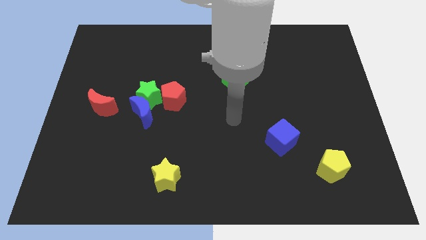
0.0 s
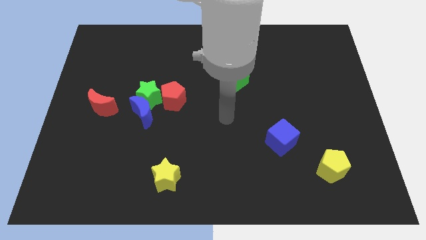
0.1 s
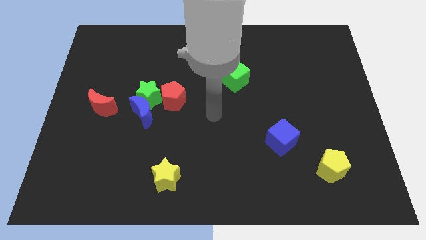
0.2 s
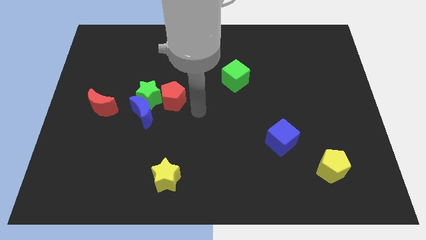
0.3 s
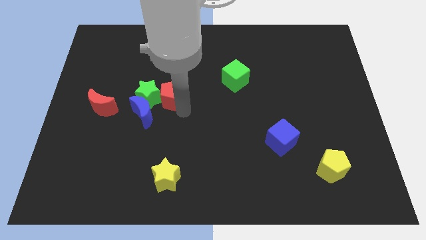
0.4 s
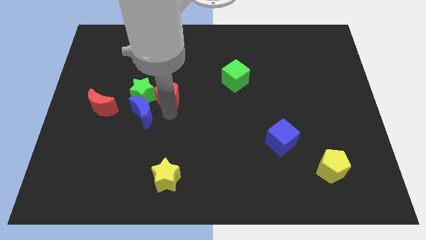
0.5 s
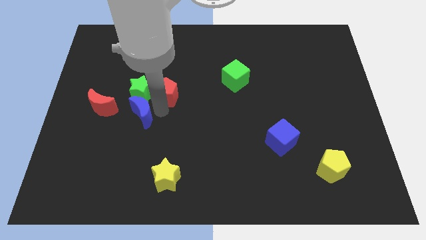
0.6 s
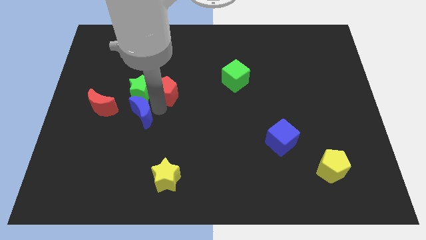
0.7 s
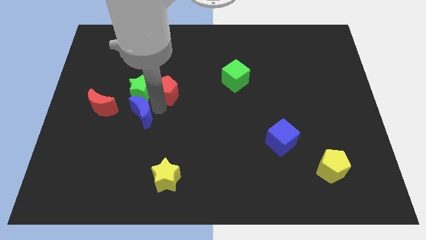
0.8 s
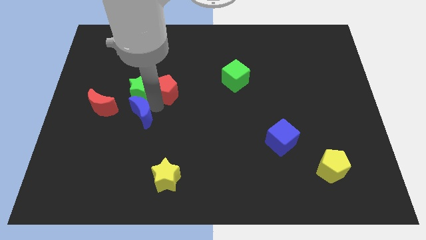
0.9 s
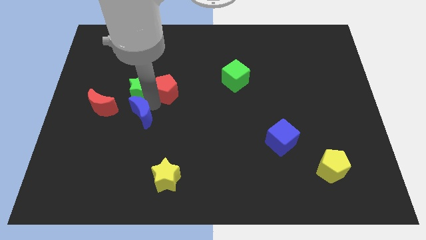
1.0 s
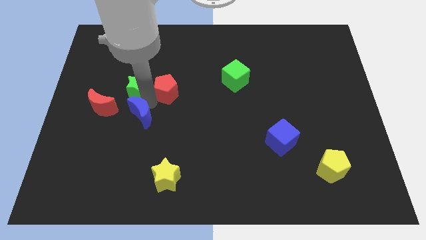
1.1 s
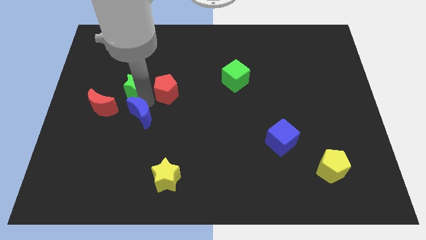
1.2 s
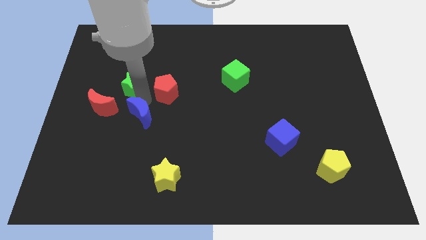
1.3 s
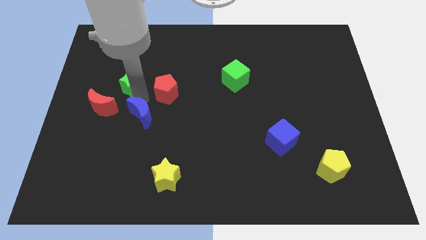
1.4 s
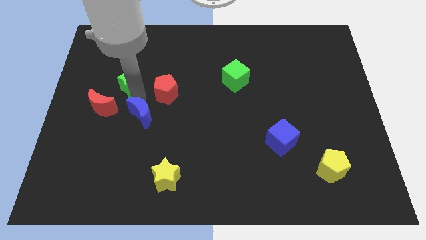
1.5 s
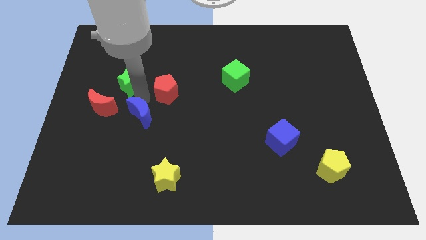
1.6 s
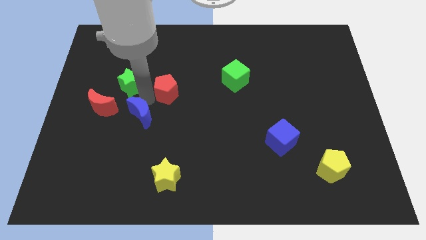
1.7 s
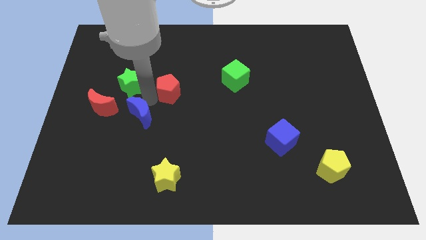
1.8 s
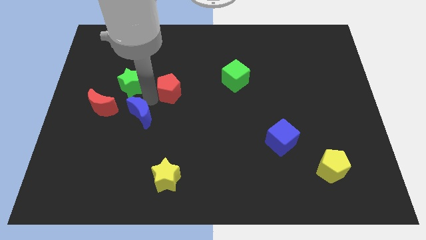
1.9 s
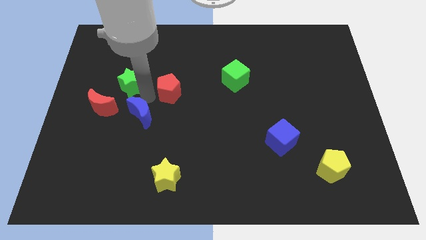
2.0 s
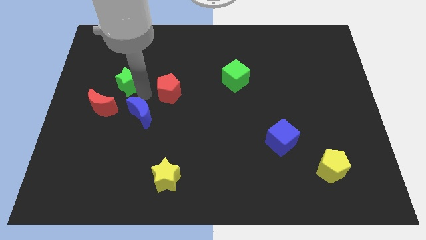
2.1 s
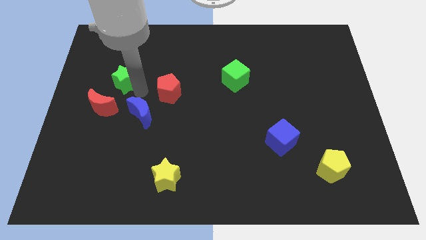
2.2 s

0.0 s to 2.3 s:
separate the green star from the blue moon and red pentagon

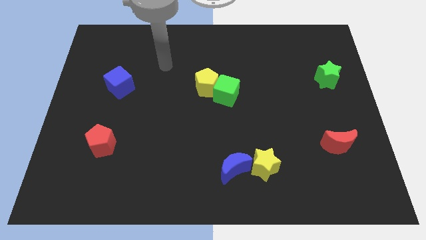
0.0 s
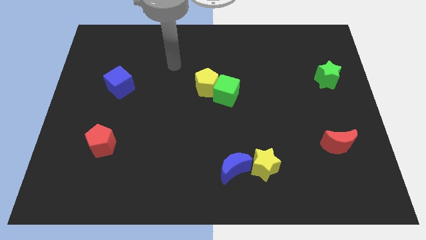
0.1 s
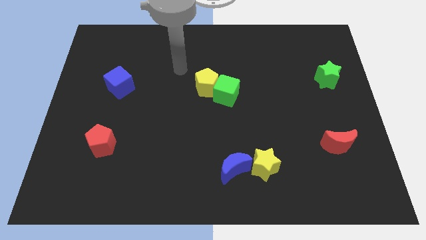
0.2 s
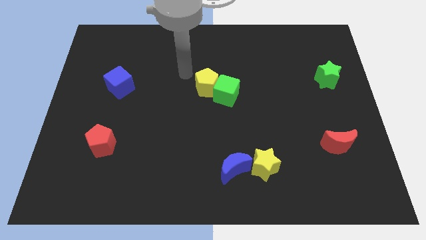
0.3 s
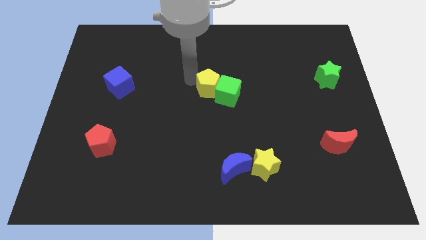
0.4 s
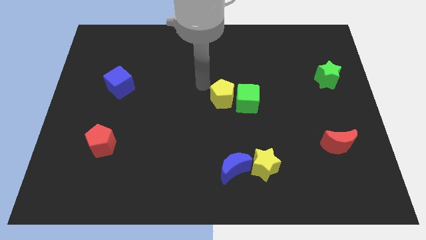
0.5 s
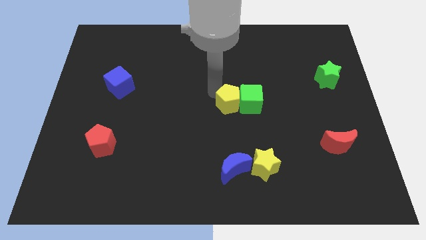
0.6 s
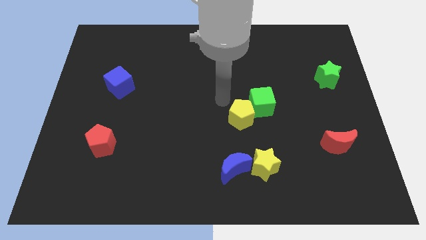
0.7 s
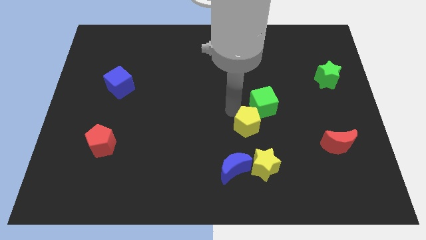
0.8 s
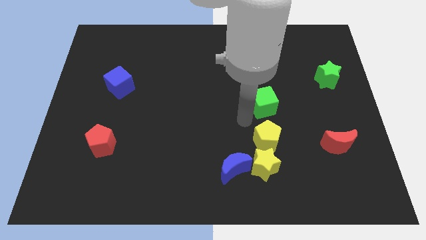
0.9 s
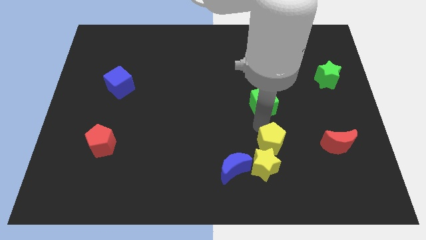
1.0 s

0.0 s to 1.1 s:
move the green cube away from the yellow pentagon

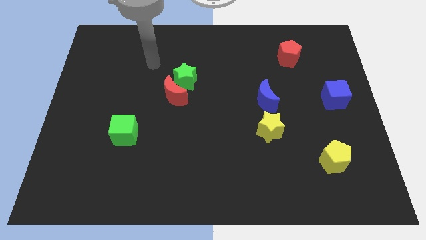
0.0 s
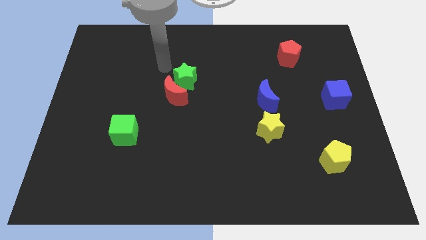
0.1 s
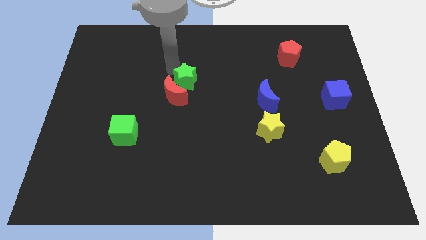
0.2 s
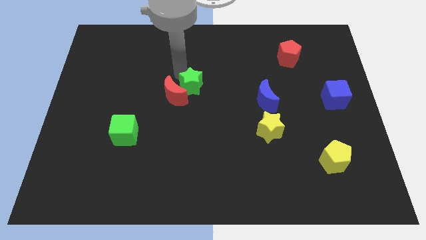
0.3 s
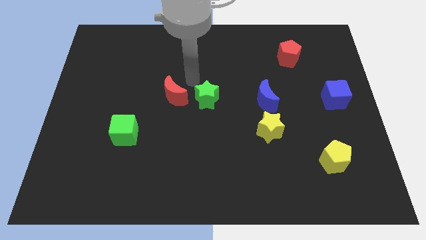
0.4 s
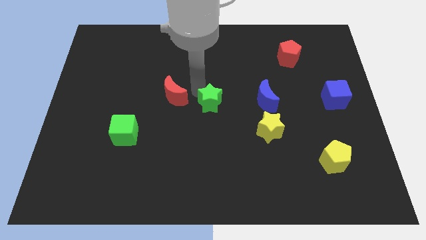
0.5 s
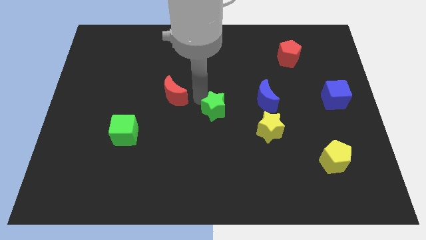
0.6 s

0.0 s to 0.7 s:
move the red moon away from the green star

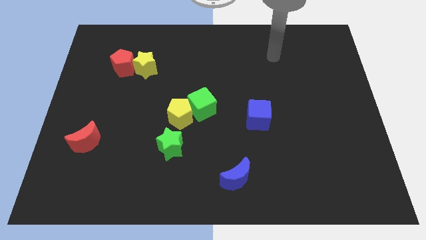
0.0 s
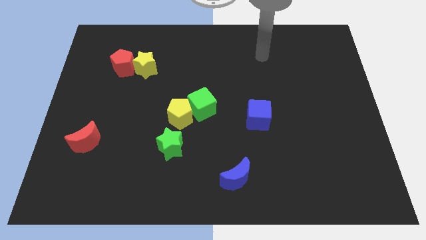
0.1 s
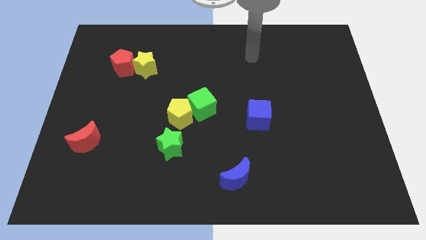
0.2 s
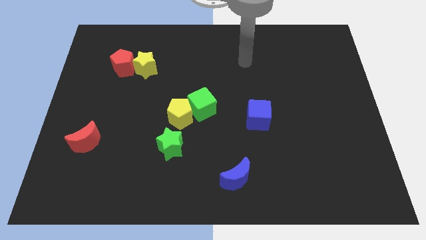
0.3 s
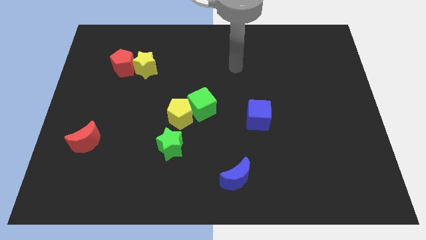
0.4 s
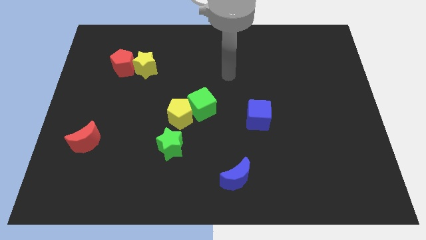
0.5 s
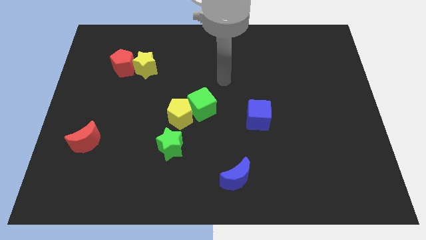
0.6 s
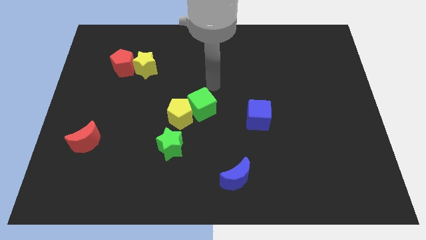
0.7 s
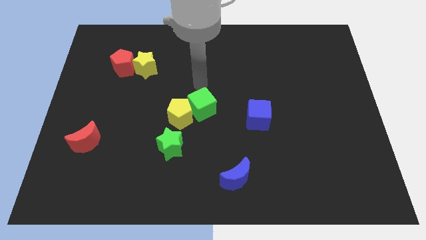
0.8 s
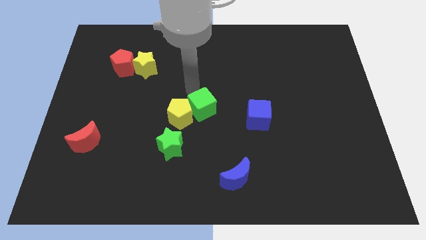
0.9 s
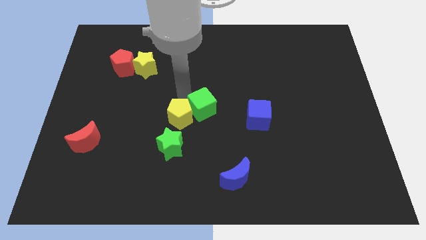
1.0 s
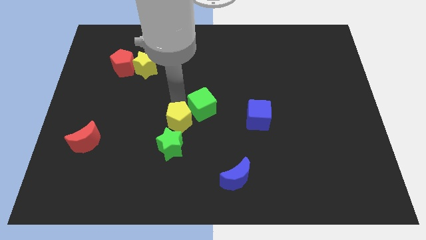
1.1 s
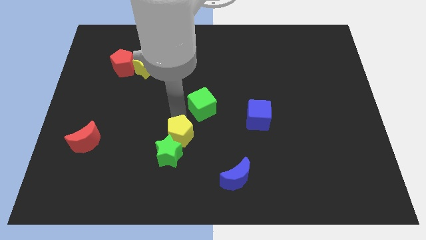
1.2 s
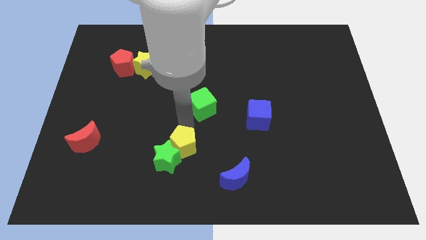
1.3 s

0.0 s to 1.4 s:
pull the green cube apart from the yellow pentagon

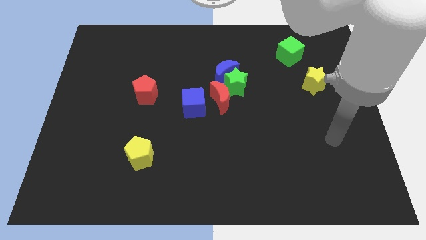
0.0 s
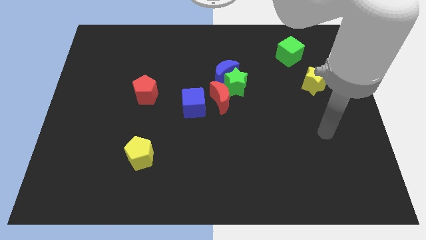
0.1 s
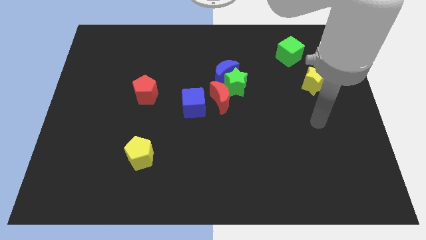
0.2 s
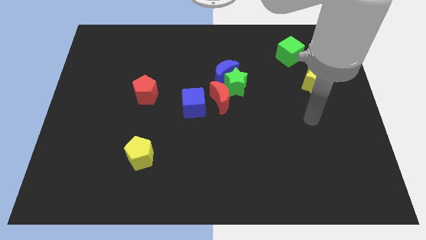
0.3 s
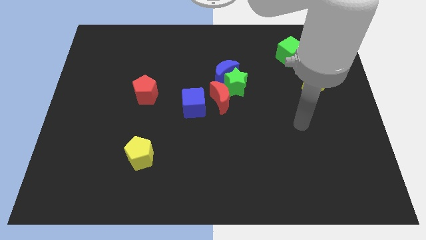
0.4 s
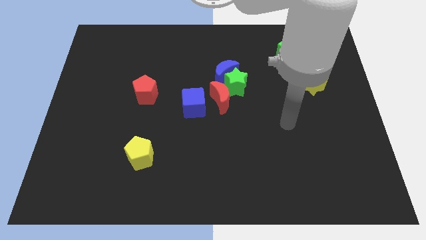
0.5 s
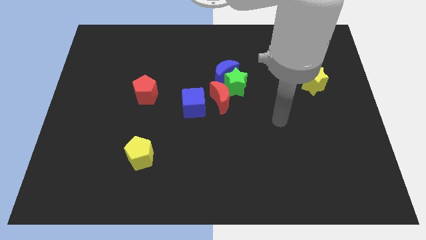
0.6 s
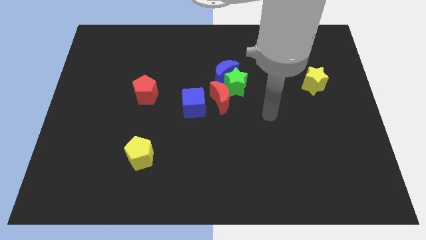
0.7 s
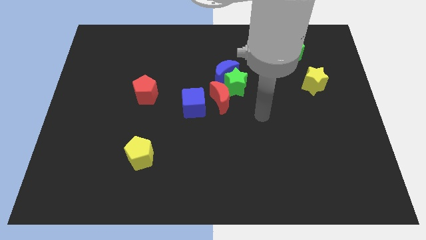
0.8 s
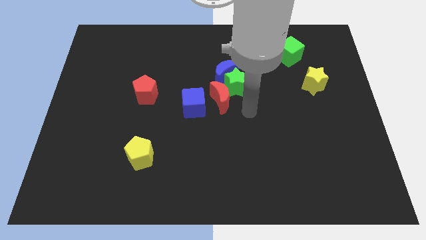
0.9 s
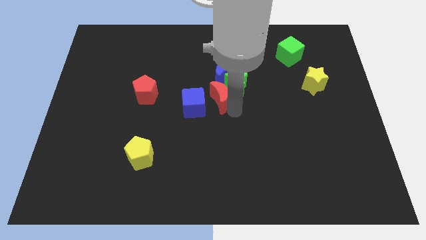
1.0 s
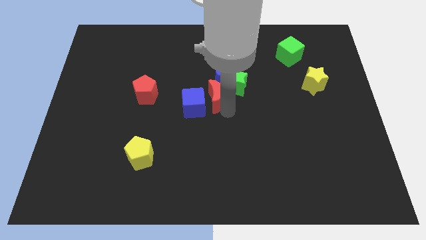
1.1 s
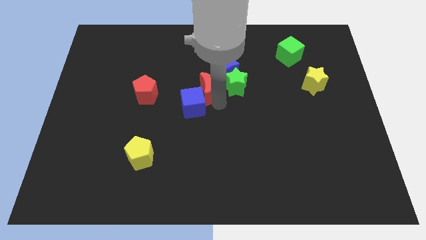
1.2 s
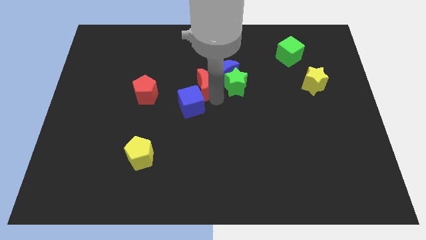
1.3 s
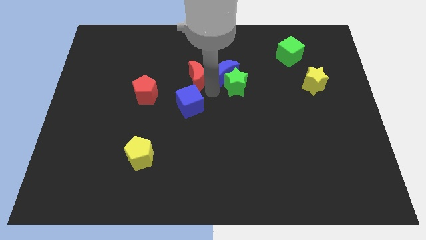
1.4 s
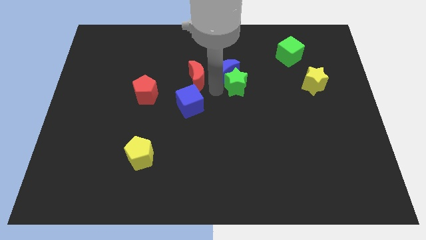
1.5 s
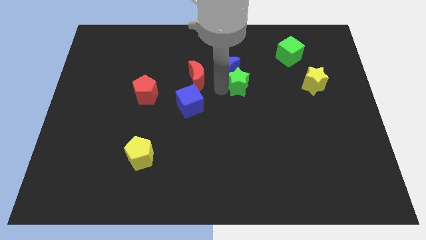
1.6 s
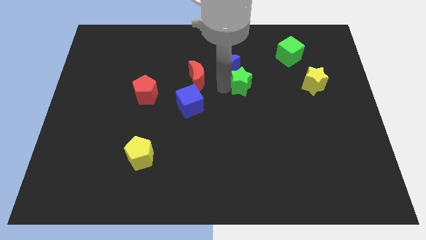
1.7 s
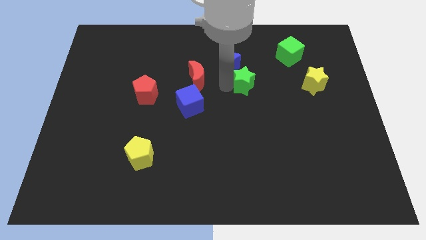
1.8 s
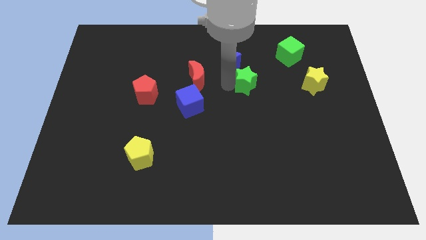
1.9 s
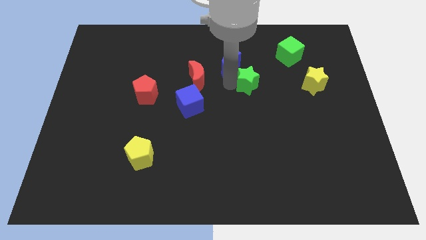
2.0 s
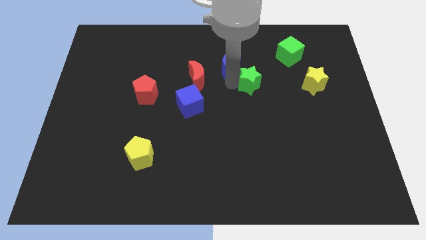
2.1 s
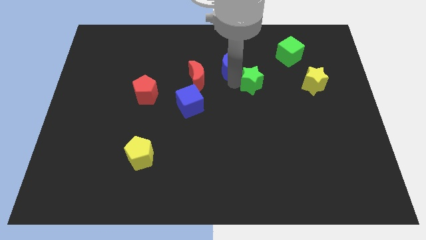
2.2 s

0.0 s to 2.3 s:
move the green star away from the blue moon and red moon

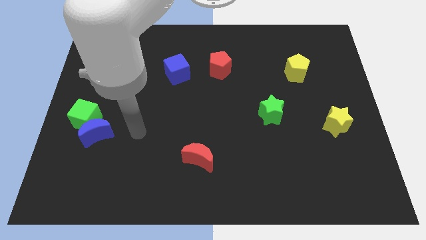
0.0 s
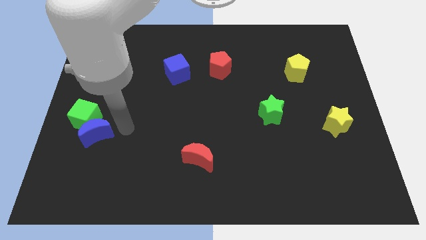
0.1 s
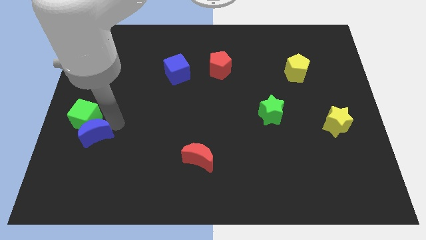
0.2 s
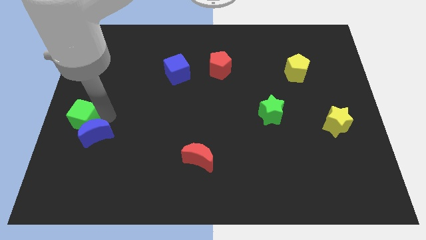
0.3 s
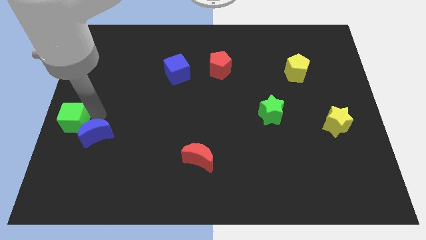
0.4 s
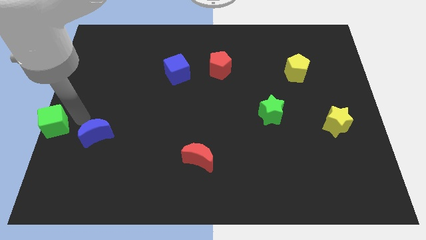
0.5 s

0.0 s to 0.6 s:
move the blue moon away from the green cube

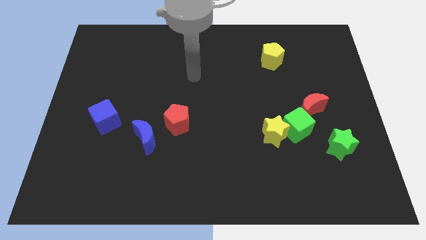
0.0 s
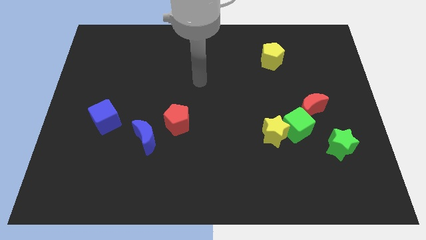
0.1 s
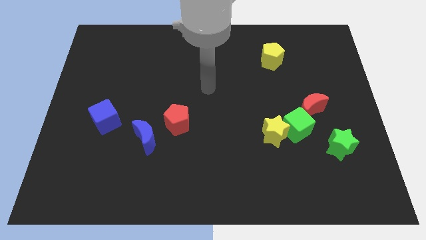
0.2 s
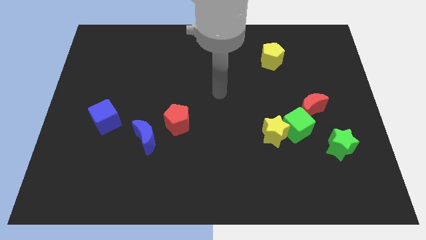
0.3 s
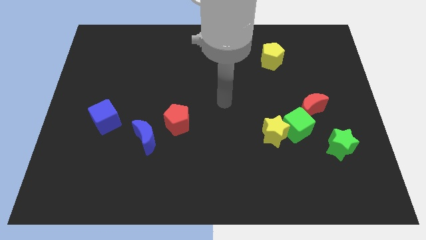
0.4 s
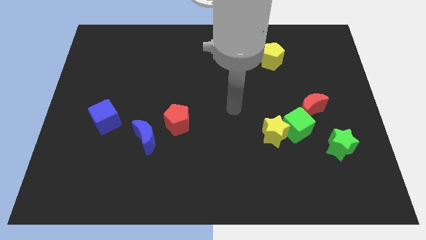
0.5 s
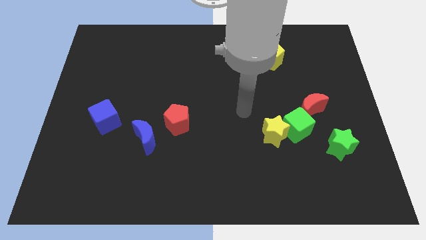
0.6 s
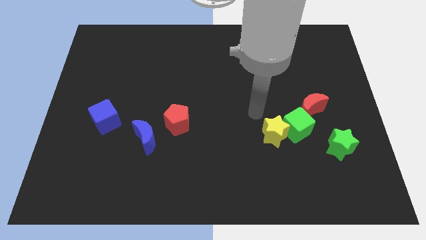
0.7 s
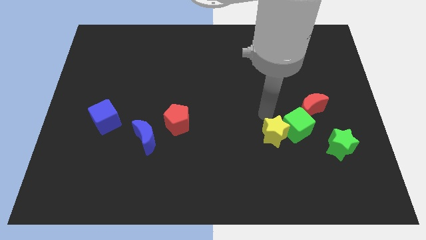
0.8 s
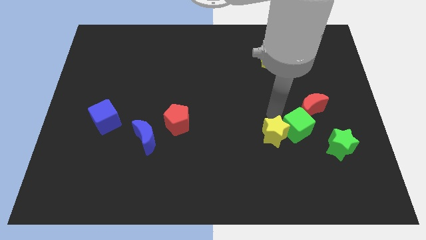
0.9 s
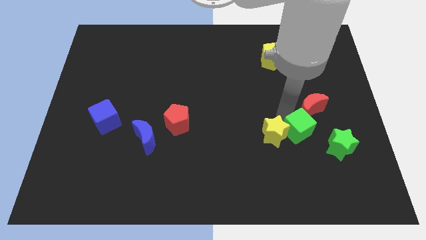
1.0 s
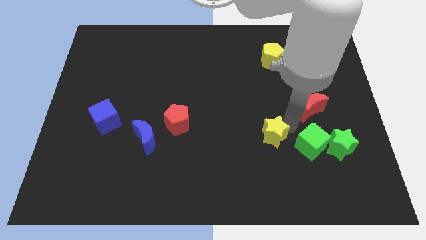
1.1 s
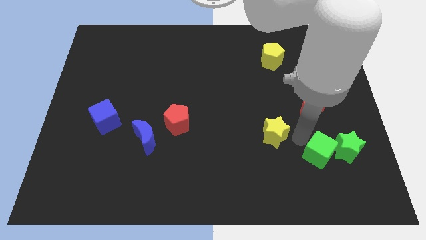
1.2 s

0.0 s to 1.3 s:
separate the yellow star from the green cube
